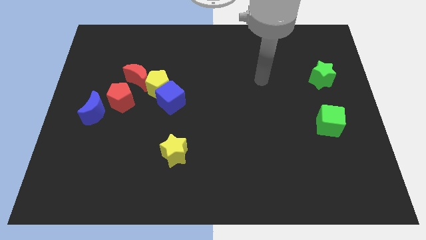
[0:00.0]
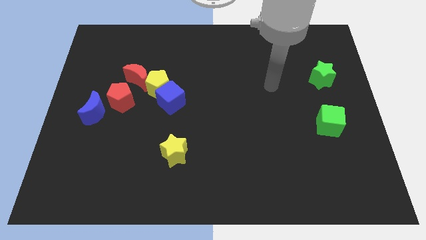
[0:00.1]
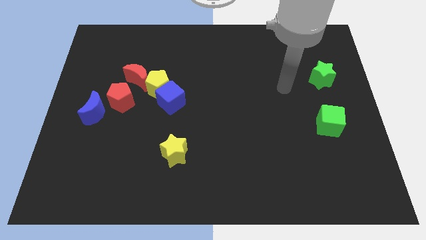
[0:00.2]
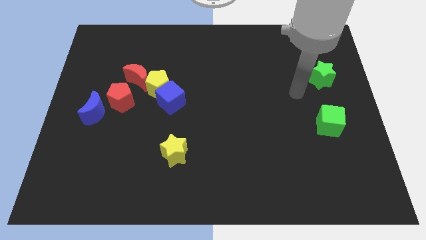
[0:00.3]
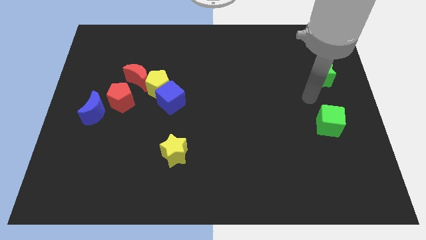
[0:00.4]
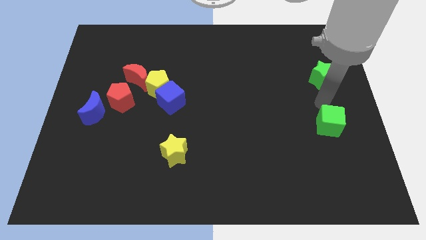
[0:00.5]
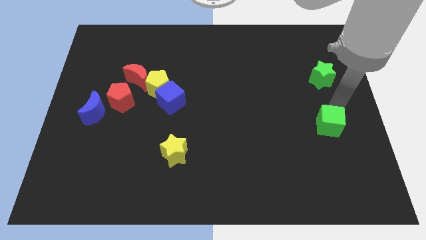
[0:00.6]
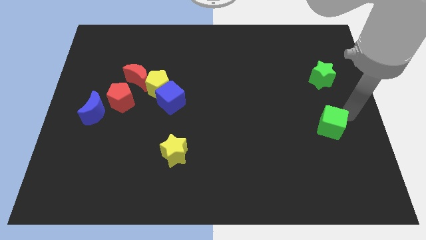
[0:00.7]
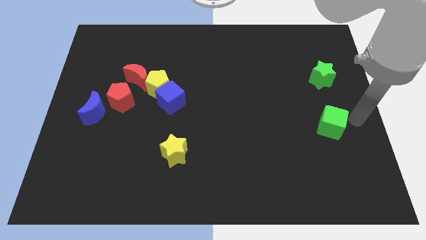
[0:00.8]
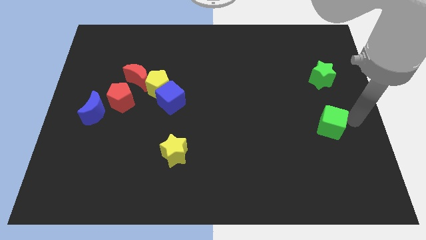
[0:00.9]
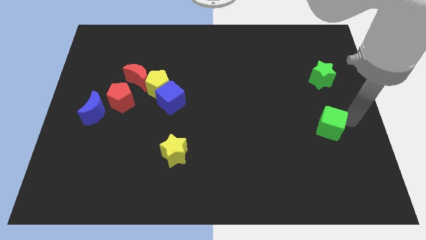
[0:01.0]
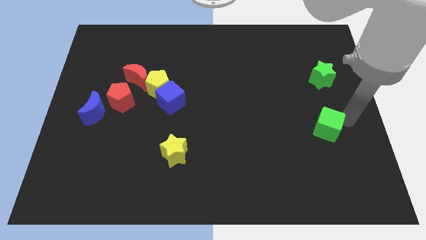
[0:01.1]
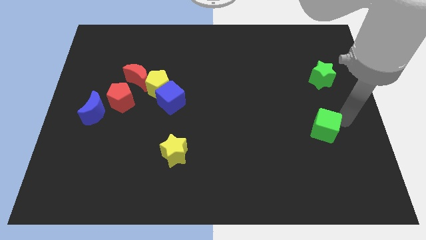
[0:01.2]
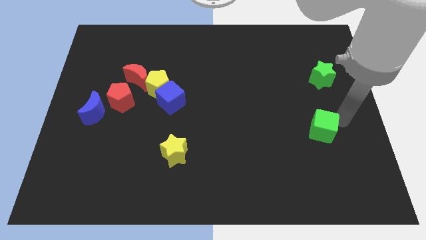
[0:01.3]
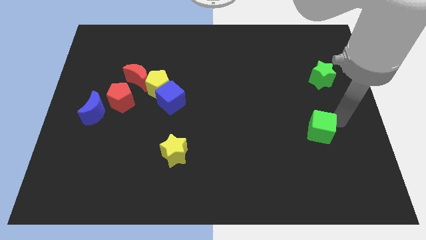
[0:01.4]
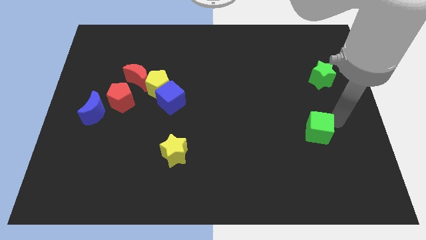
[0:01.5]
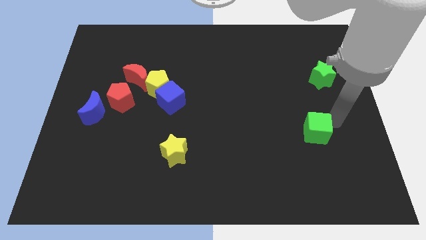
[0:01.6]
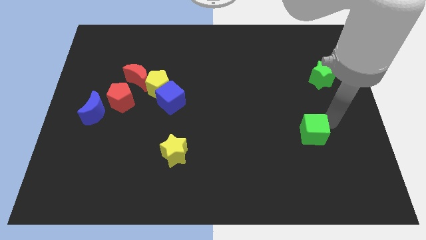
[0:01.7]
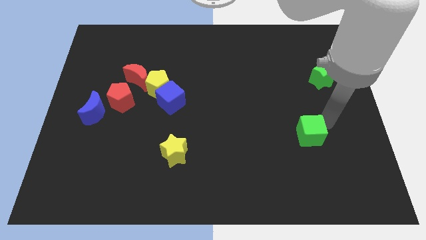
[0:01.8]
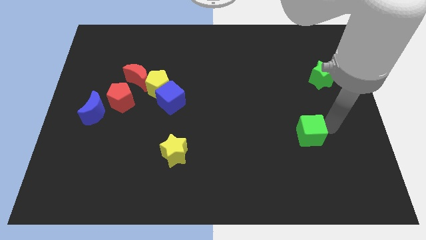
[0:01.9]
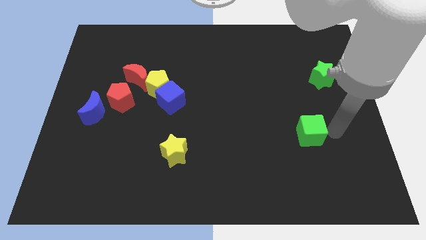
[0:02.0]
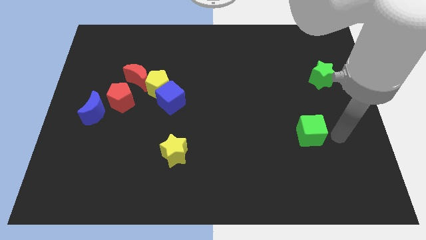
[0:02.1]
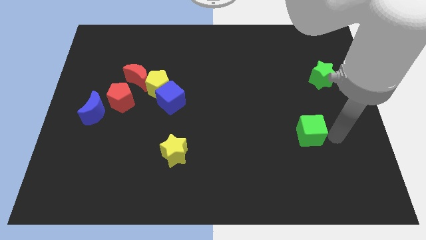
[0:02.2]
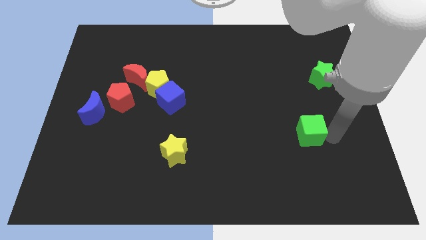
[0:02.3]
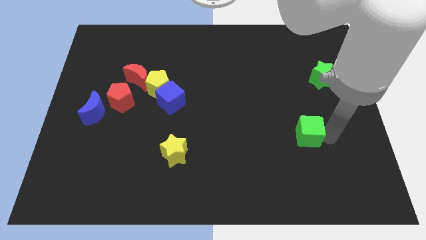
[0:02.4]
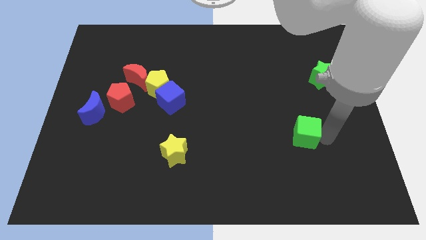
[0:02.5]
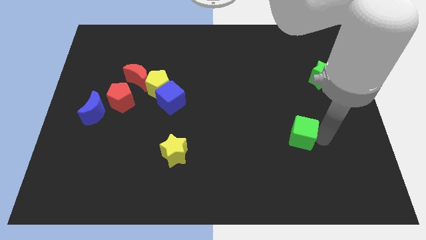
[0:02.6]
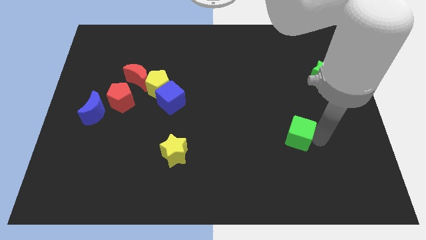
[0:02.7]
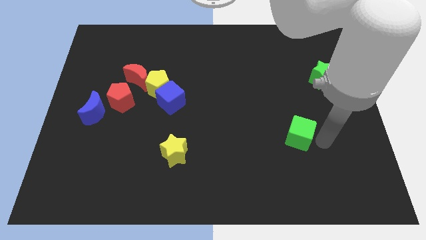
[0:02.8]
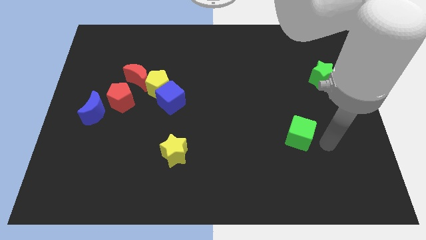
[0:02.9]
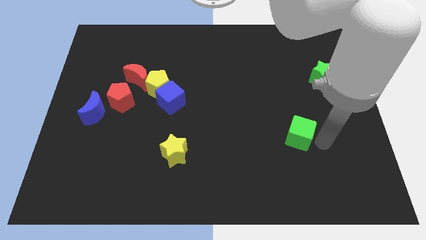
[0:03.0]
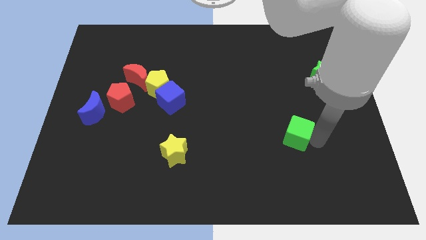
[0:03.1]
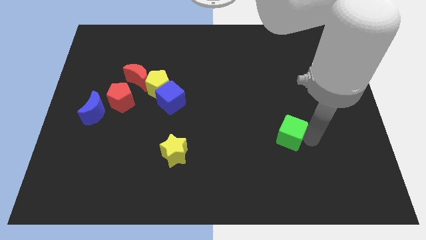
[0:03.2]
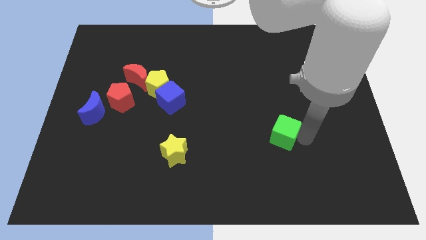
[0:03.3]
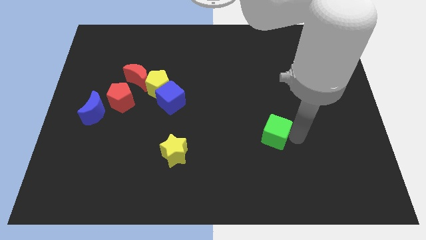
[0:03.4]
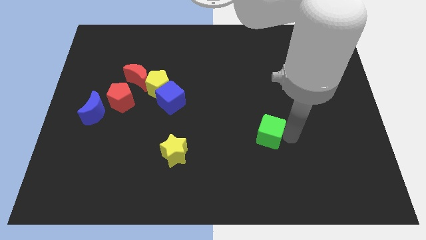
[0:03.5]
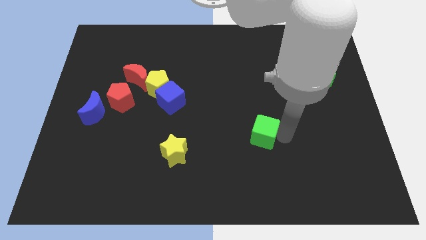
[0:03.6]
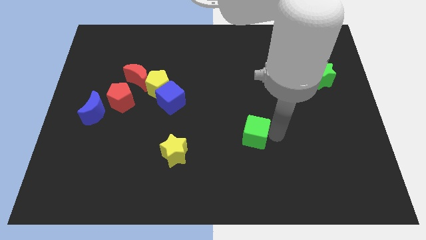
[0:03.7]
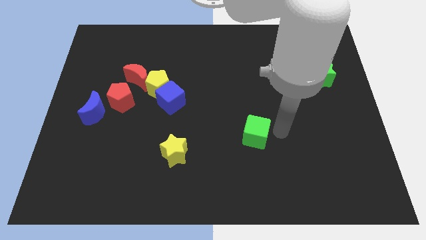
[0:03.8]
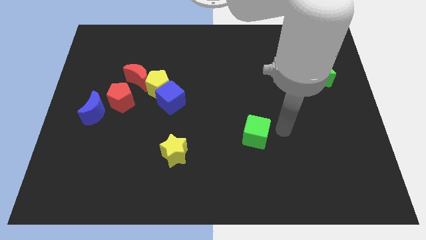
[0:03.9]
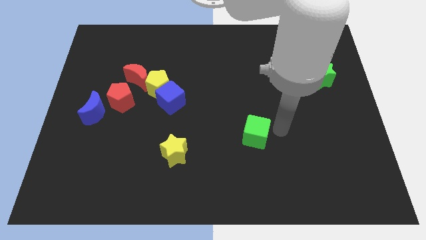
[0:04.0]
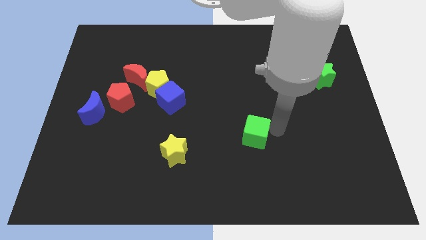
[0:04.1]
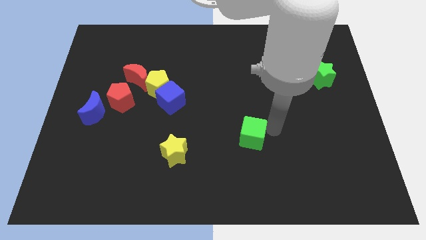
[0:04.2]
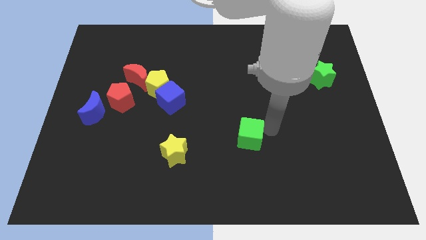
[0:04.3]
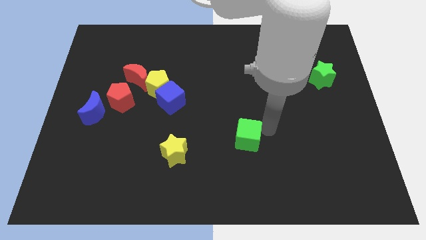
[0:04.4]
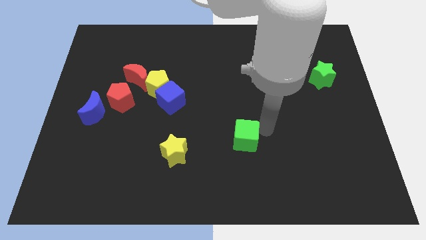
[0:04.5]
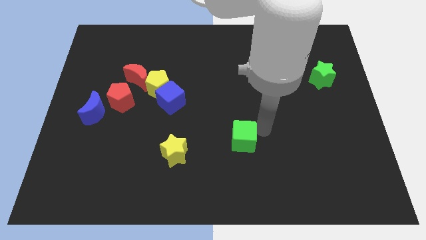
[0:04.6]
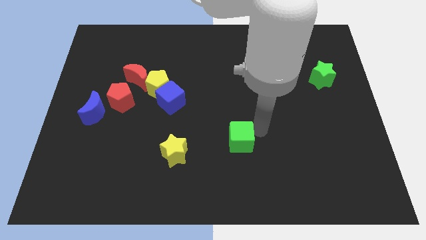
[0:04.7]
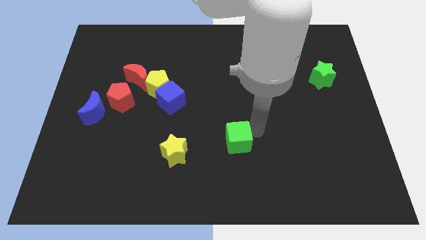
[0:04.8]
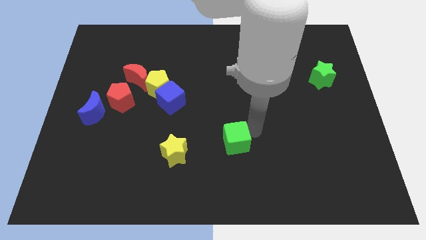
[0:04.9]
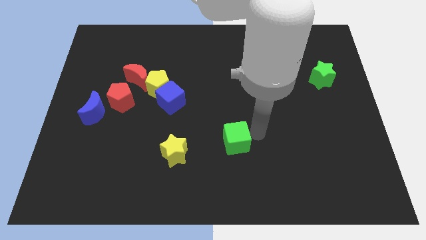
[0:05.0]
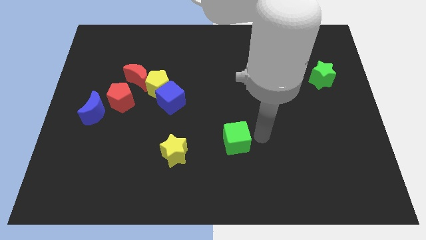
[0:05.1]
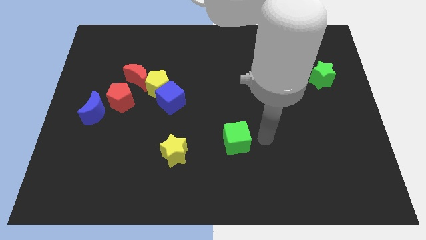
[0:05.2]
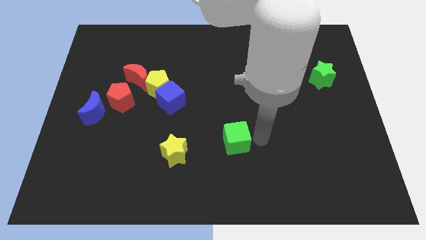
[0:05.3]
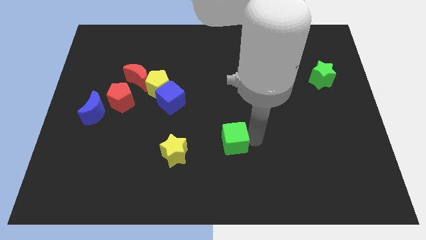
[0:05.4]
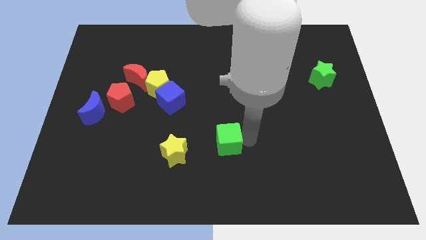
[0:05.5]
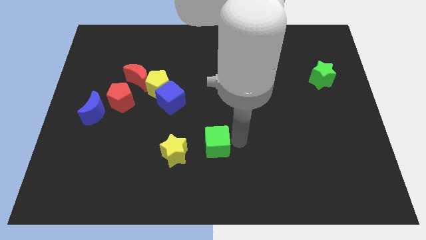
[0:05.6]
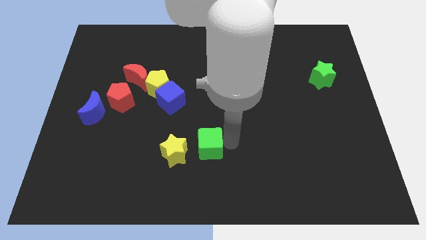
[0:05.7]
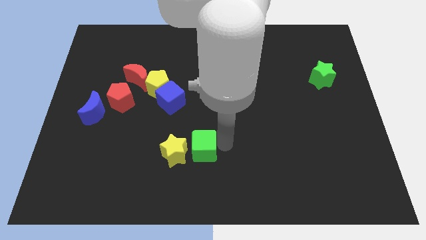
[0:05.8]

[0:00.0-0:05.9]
push the green cube to the yellow star

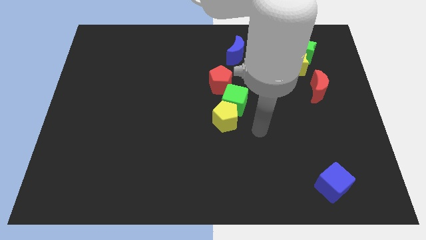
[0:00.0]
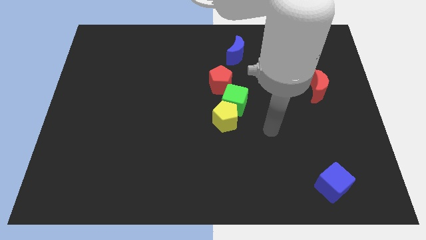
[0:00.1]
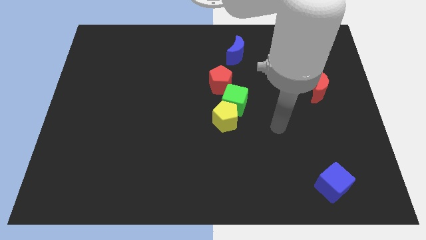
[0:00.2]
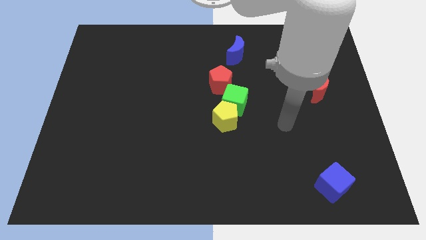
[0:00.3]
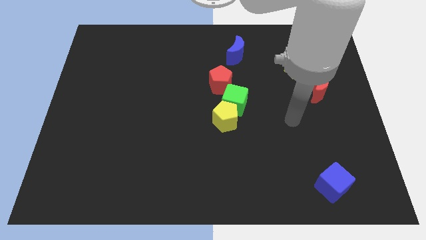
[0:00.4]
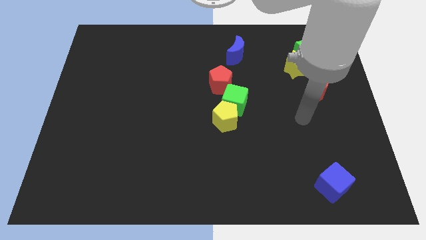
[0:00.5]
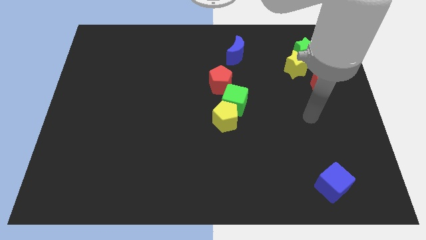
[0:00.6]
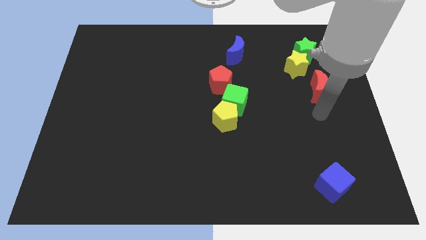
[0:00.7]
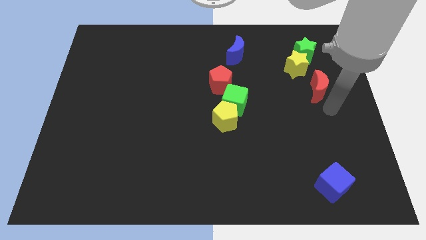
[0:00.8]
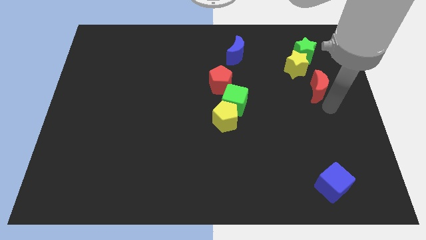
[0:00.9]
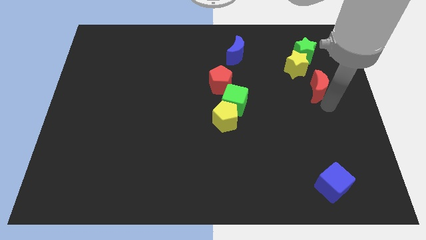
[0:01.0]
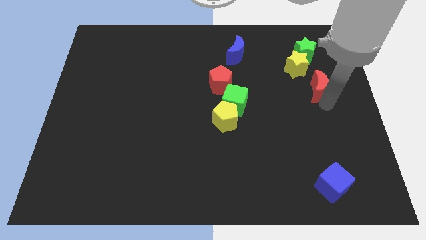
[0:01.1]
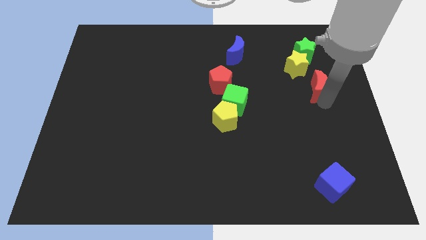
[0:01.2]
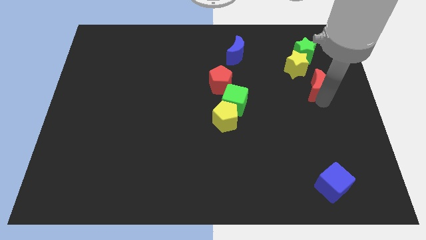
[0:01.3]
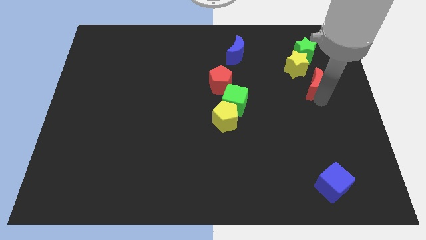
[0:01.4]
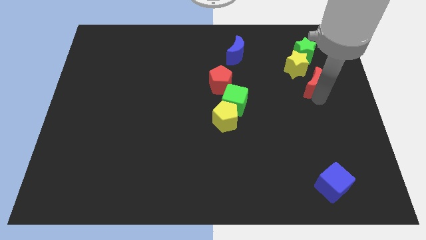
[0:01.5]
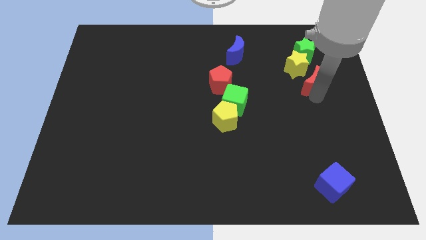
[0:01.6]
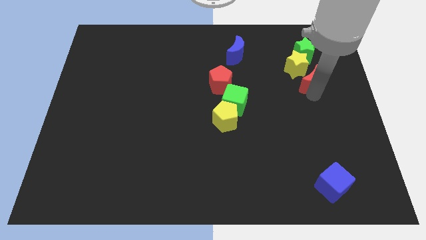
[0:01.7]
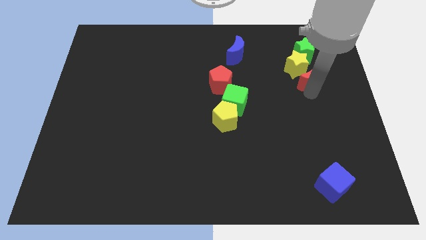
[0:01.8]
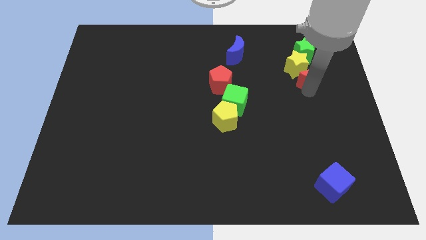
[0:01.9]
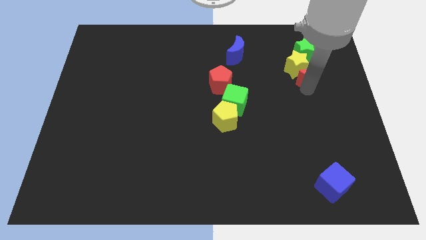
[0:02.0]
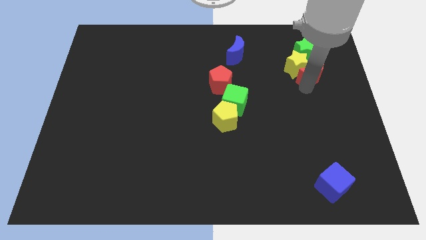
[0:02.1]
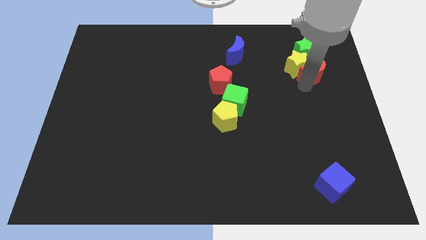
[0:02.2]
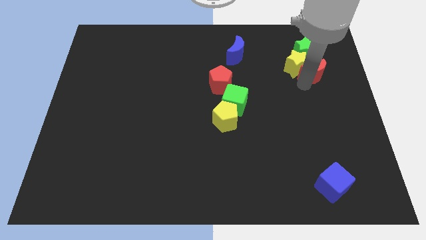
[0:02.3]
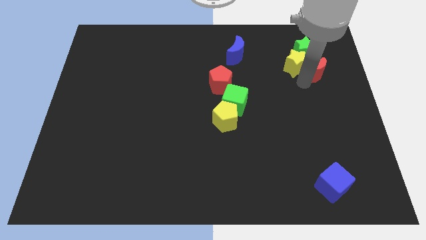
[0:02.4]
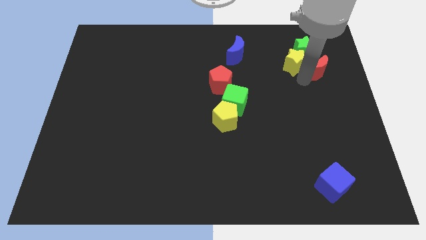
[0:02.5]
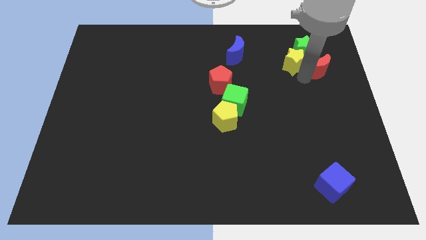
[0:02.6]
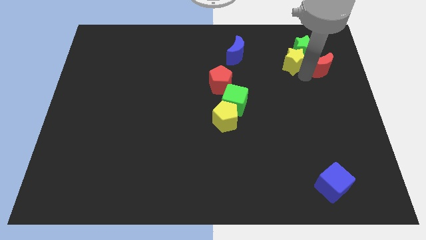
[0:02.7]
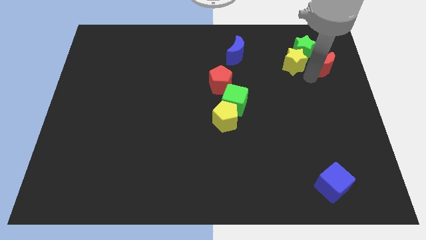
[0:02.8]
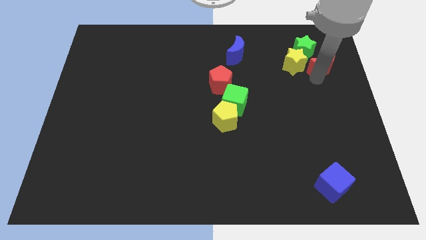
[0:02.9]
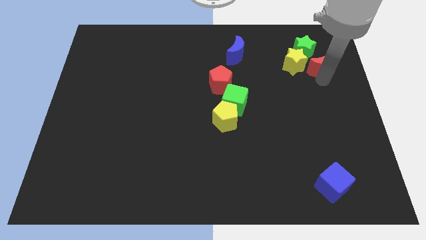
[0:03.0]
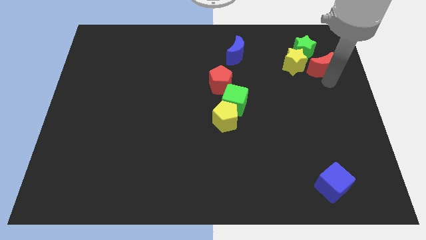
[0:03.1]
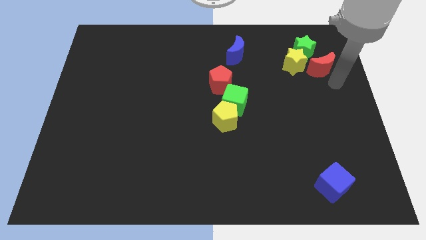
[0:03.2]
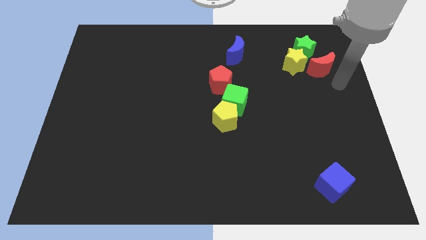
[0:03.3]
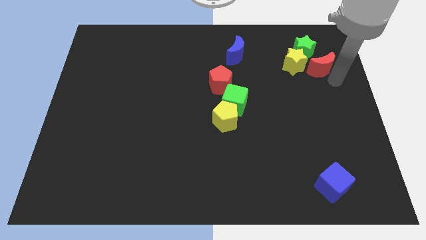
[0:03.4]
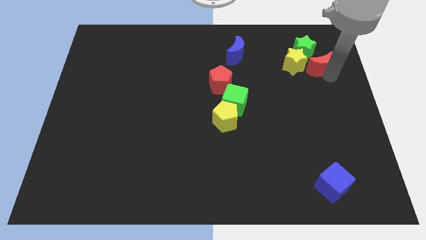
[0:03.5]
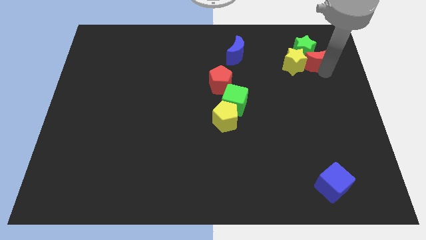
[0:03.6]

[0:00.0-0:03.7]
push the red moon next to the green star
